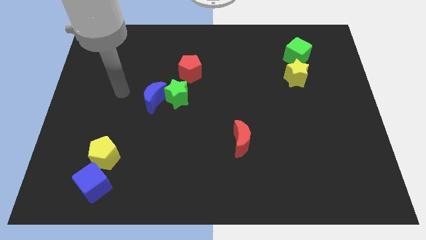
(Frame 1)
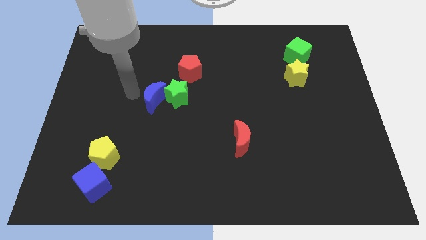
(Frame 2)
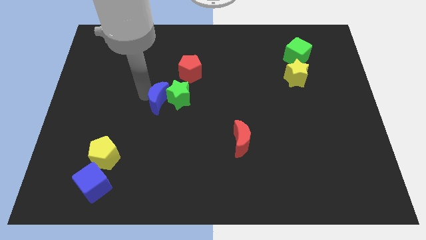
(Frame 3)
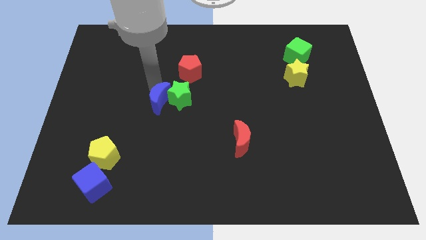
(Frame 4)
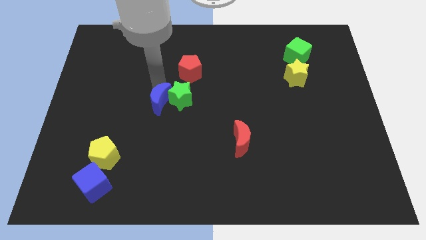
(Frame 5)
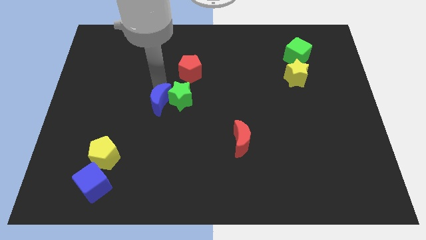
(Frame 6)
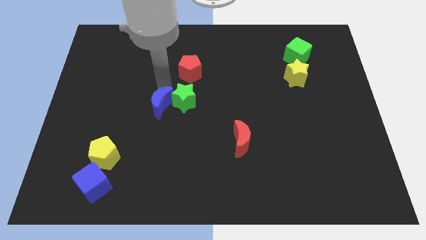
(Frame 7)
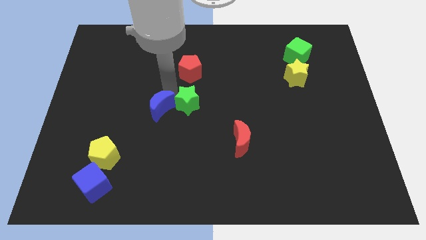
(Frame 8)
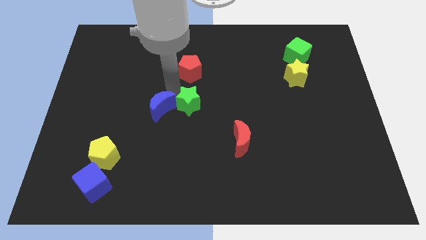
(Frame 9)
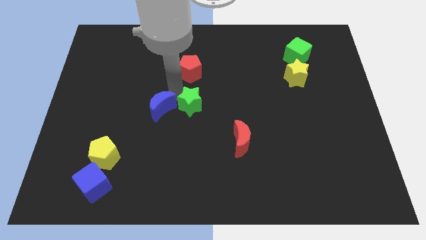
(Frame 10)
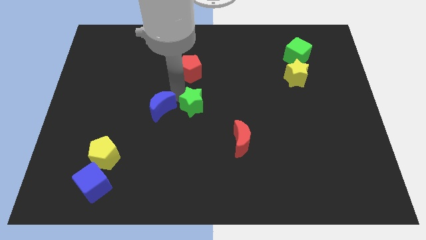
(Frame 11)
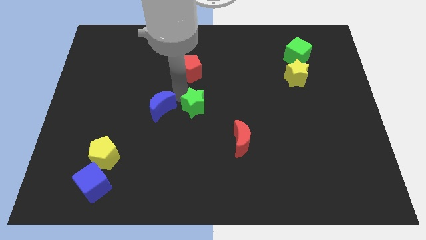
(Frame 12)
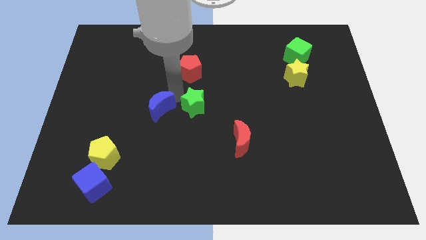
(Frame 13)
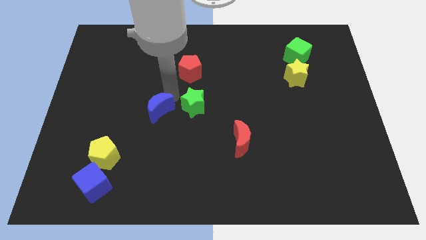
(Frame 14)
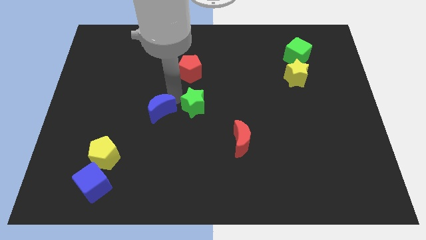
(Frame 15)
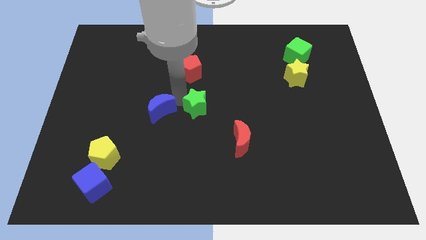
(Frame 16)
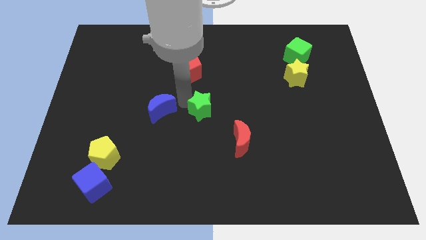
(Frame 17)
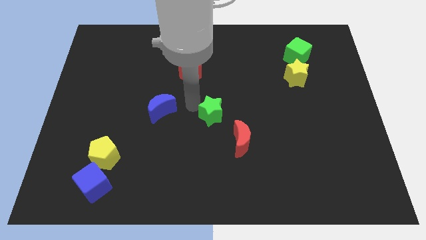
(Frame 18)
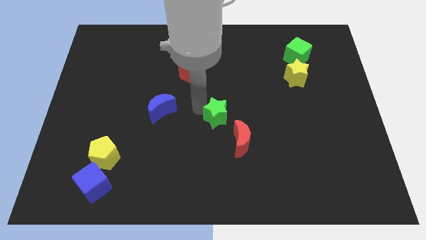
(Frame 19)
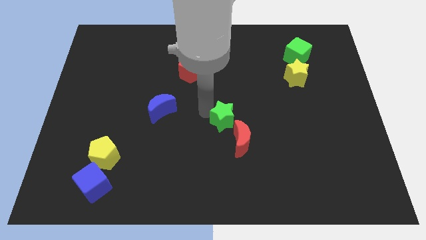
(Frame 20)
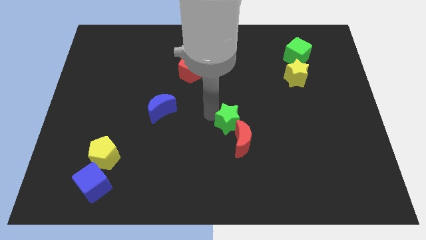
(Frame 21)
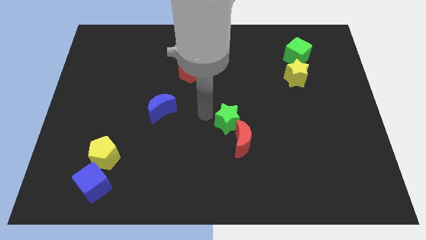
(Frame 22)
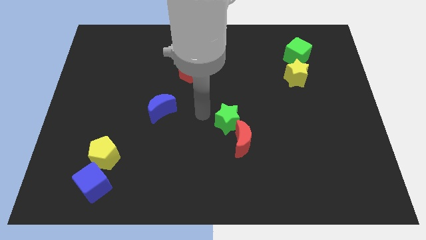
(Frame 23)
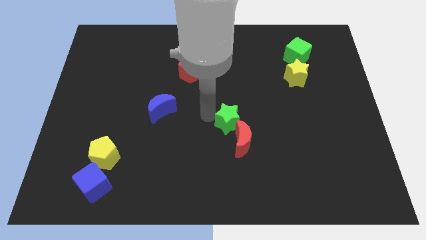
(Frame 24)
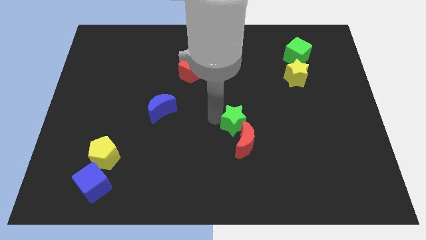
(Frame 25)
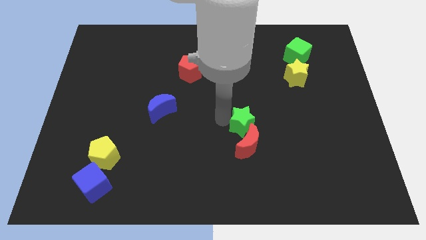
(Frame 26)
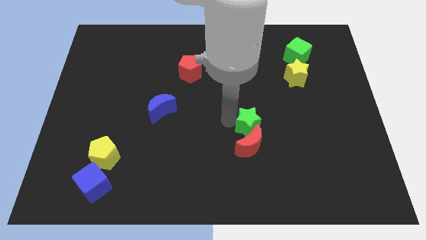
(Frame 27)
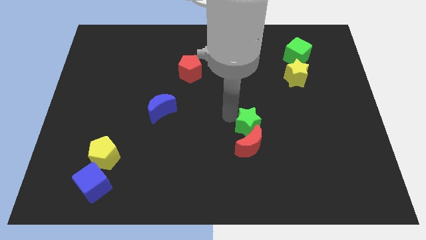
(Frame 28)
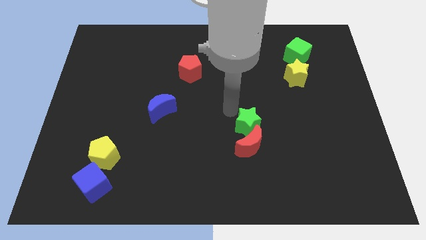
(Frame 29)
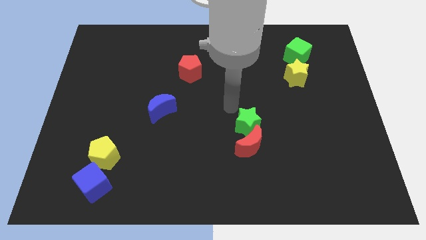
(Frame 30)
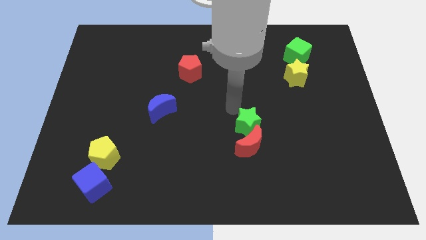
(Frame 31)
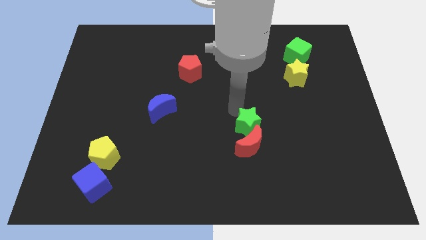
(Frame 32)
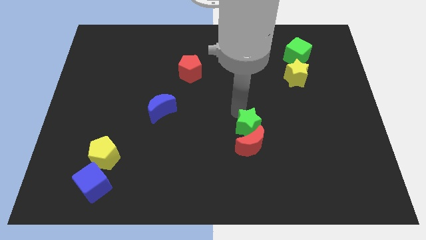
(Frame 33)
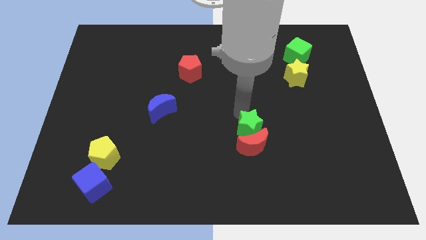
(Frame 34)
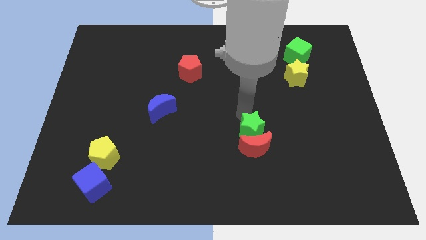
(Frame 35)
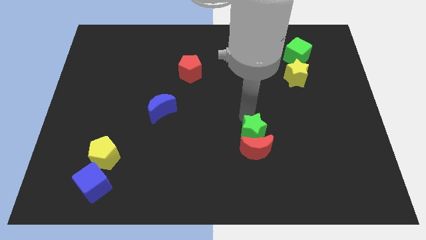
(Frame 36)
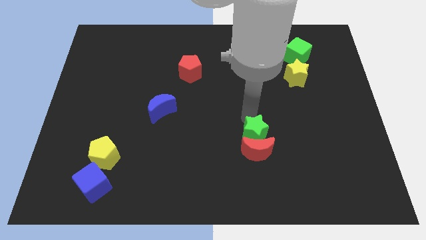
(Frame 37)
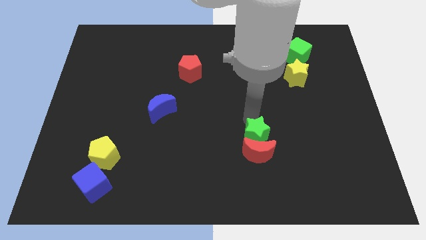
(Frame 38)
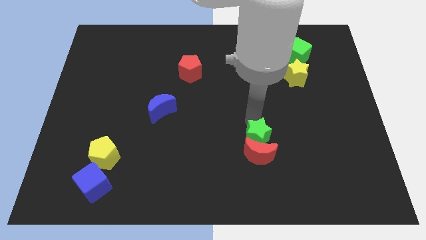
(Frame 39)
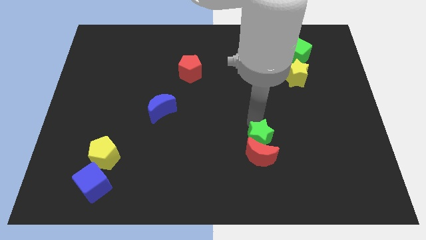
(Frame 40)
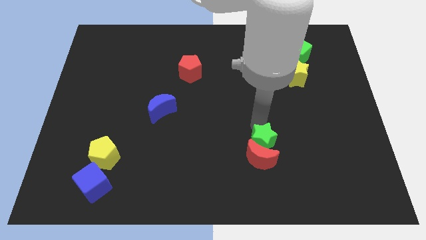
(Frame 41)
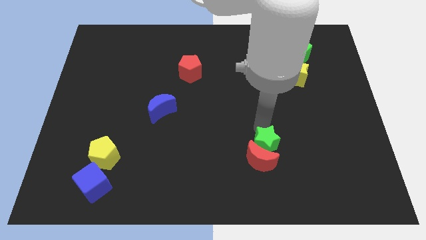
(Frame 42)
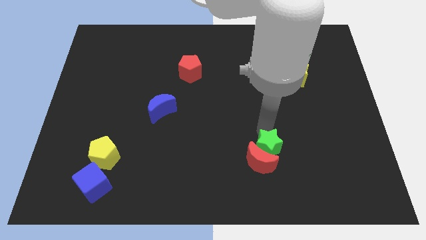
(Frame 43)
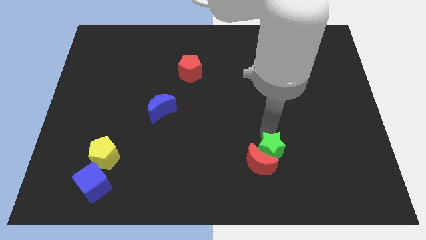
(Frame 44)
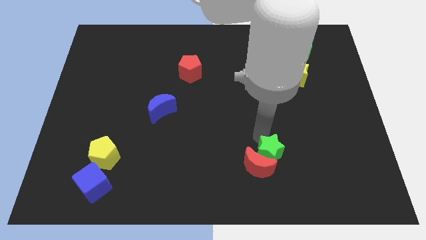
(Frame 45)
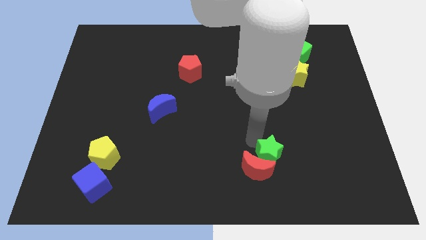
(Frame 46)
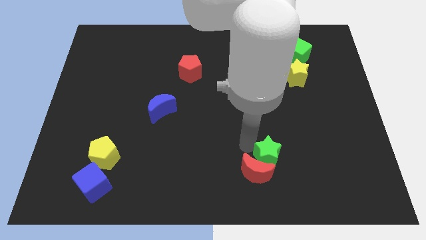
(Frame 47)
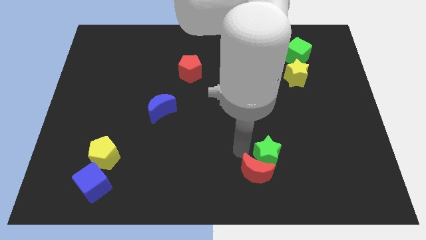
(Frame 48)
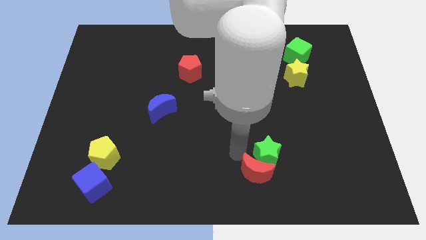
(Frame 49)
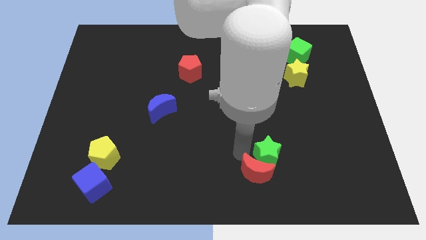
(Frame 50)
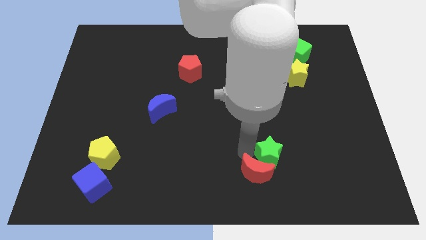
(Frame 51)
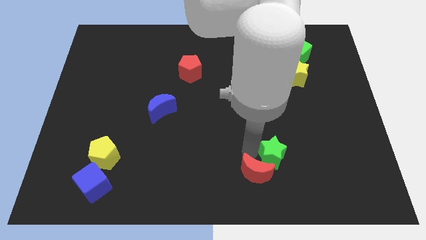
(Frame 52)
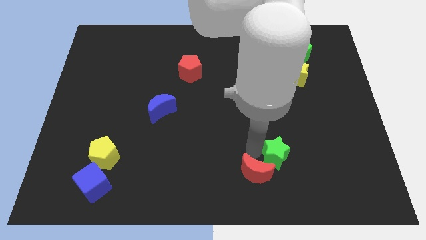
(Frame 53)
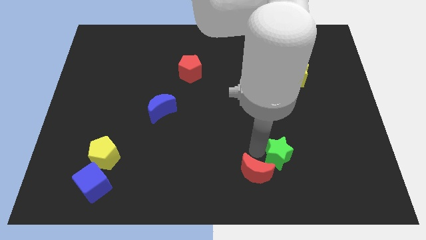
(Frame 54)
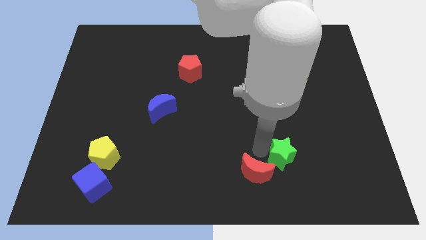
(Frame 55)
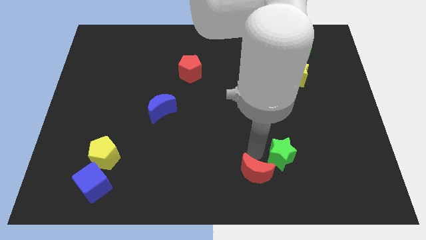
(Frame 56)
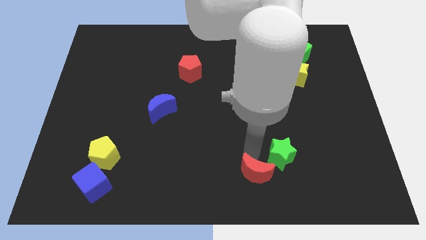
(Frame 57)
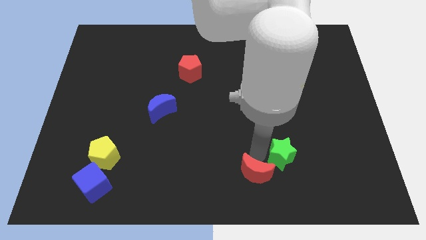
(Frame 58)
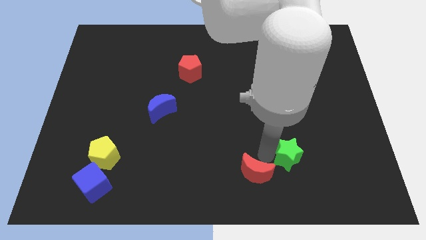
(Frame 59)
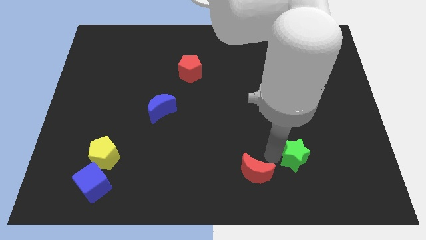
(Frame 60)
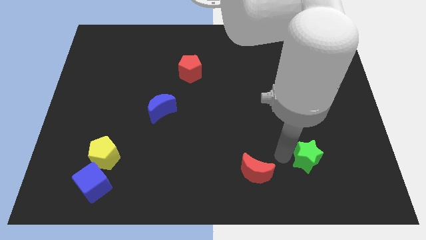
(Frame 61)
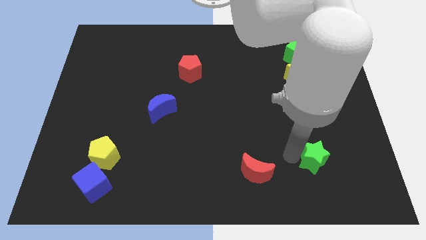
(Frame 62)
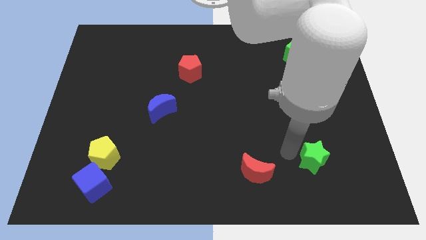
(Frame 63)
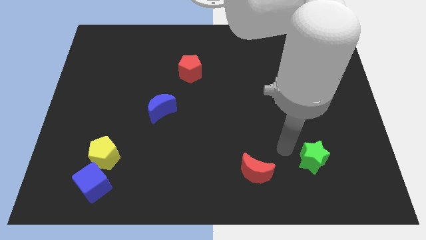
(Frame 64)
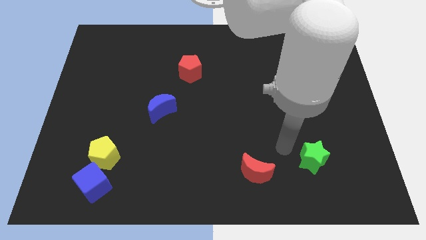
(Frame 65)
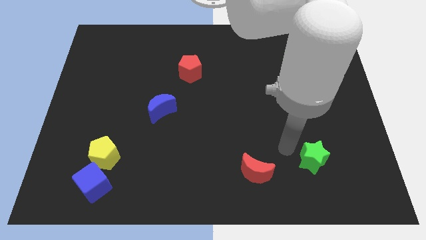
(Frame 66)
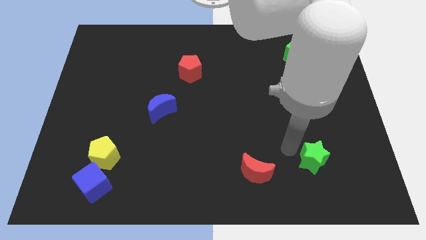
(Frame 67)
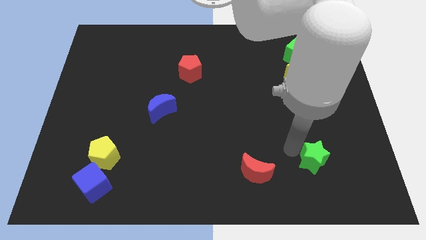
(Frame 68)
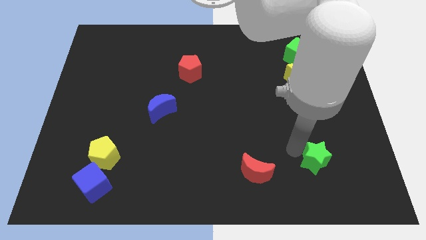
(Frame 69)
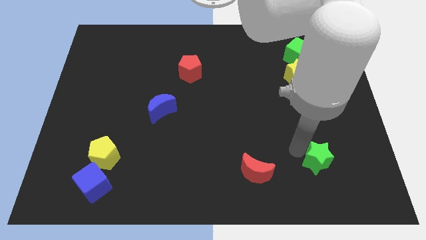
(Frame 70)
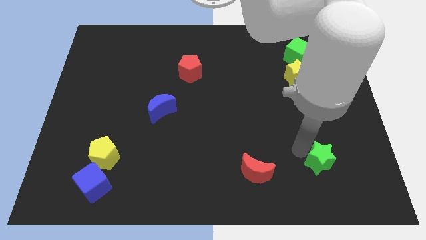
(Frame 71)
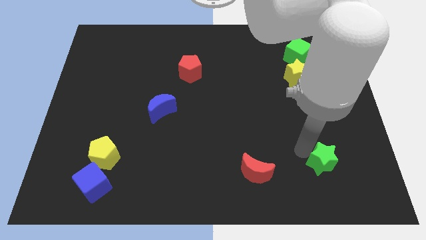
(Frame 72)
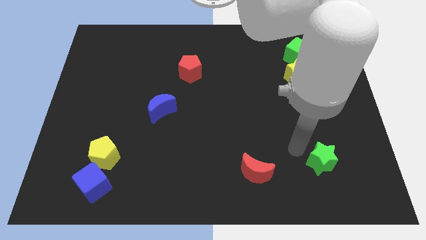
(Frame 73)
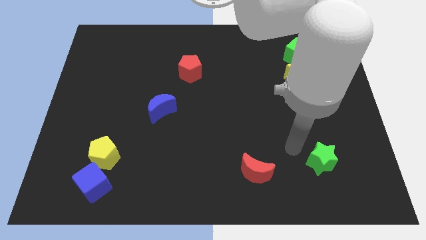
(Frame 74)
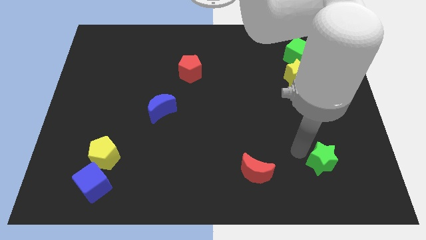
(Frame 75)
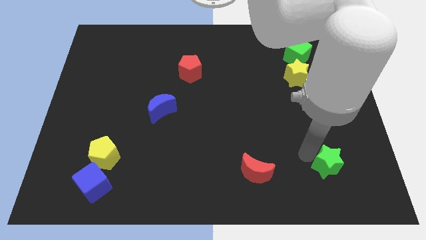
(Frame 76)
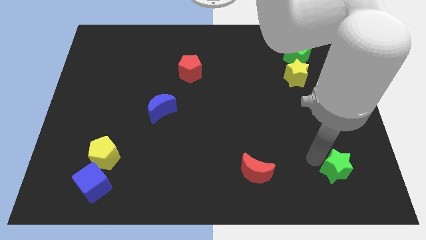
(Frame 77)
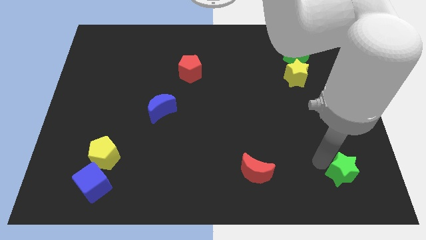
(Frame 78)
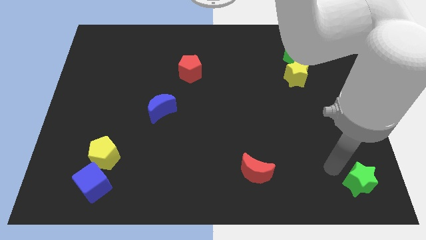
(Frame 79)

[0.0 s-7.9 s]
push the green star to the lower right corner
